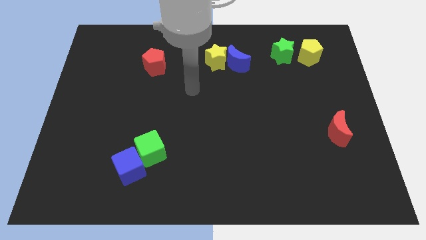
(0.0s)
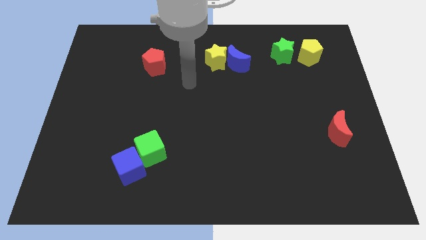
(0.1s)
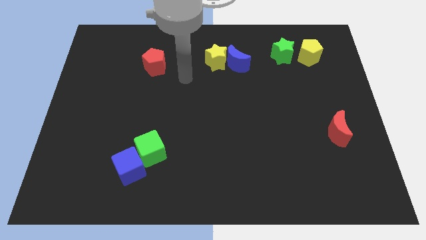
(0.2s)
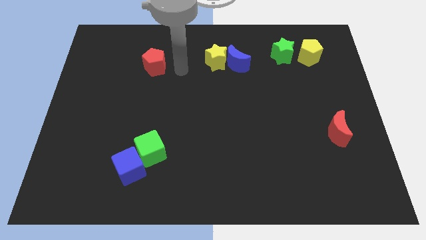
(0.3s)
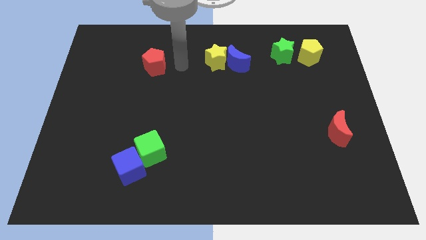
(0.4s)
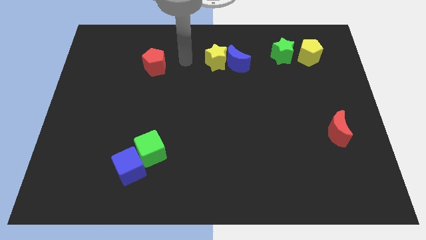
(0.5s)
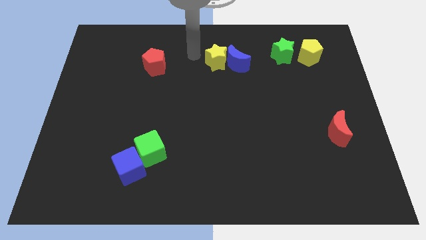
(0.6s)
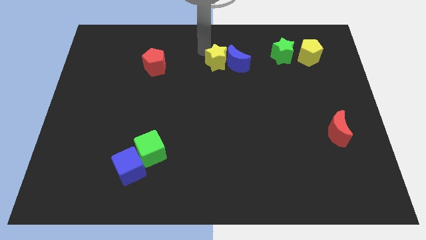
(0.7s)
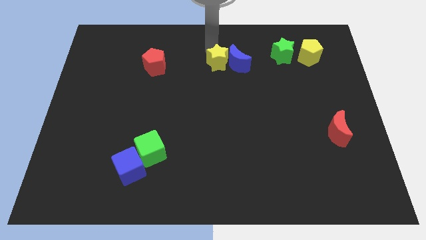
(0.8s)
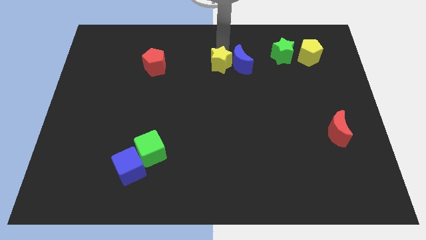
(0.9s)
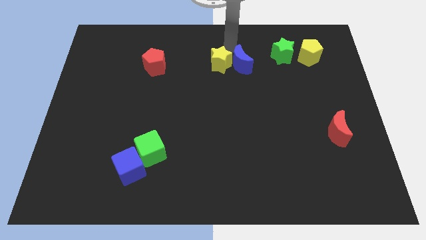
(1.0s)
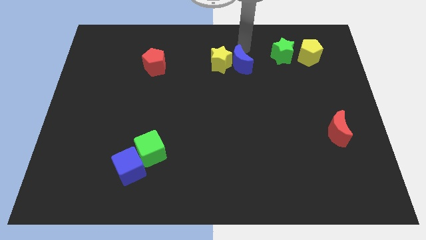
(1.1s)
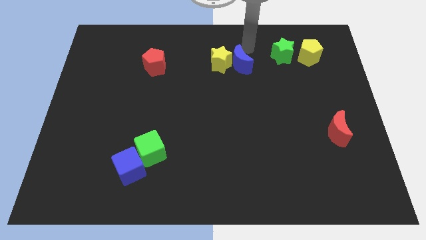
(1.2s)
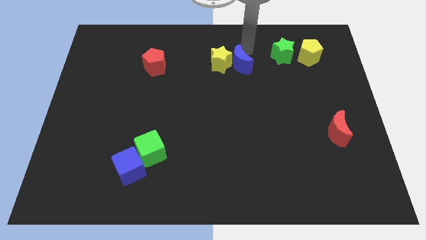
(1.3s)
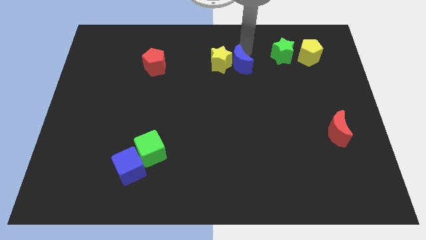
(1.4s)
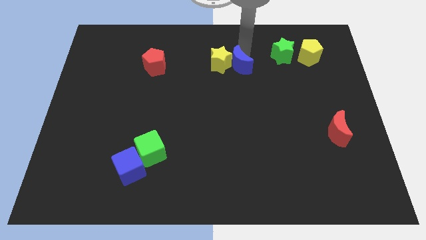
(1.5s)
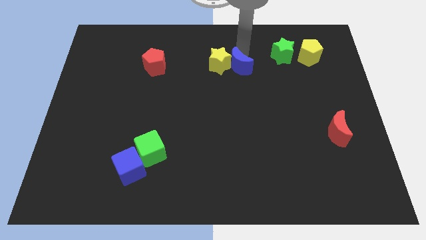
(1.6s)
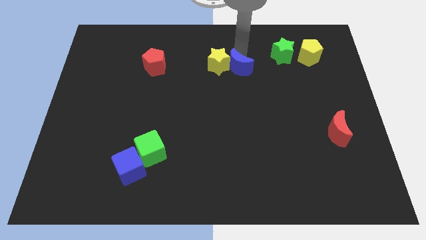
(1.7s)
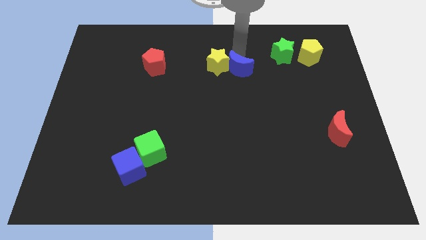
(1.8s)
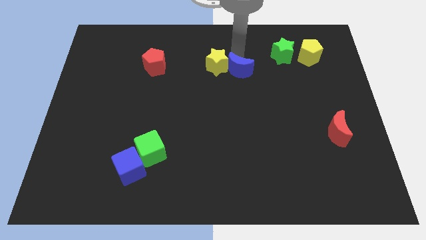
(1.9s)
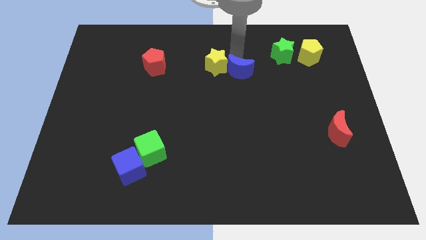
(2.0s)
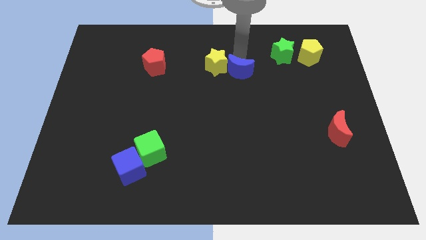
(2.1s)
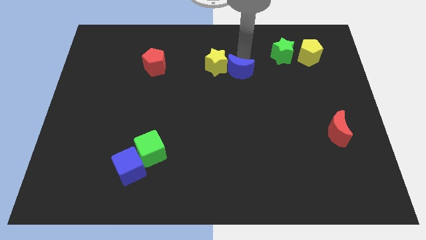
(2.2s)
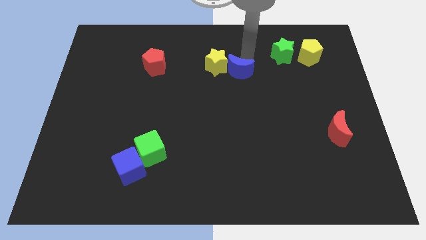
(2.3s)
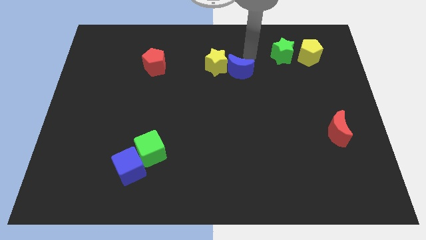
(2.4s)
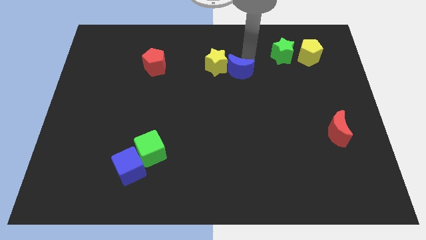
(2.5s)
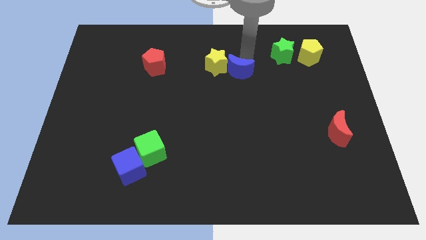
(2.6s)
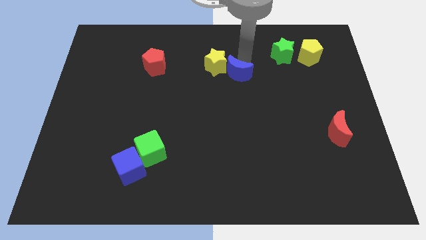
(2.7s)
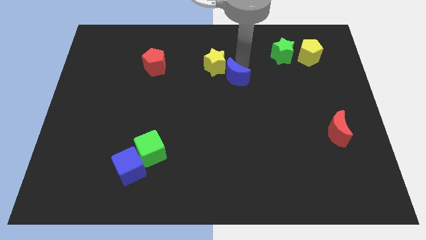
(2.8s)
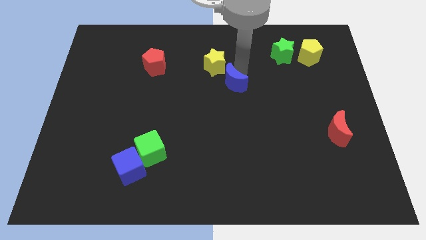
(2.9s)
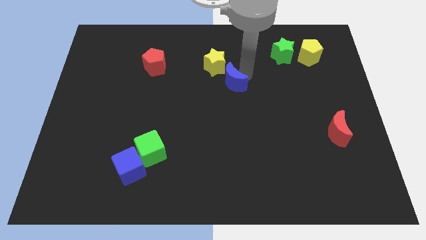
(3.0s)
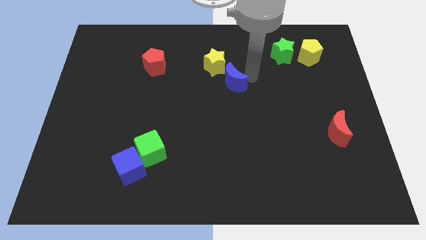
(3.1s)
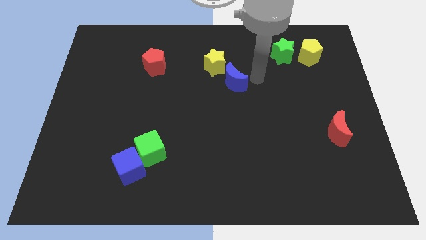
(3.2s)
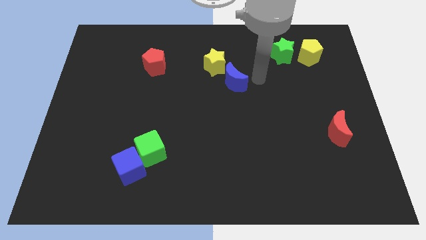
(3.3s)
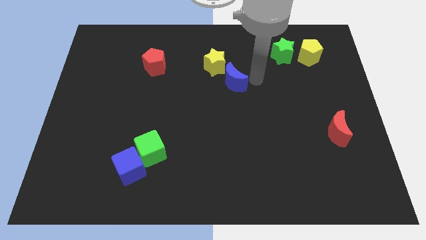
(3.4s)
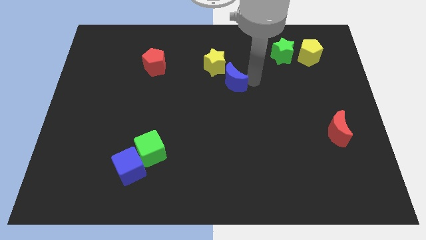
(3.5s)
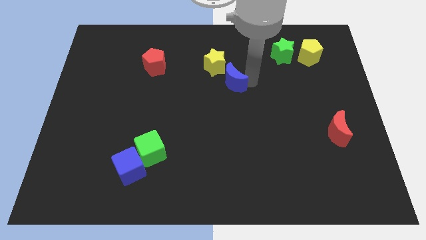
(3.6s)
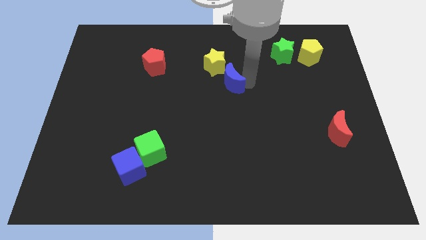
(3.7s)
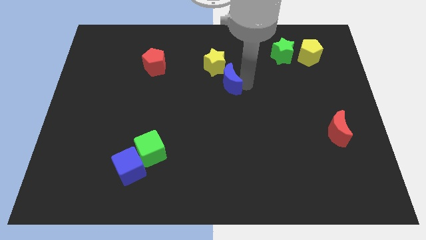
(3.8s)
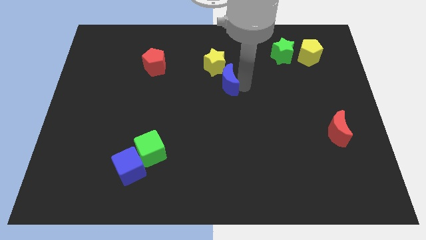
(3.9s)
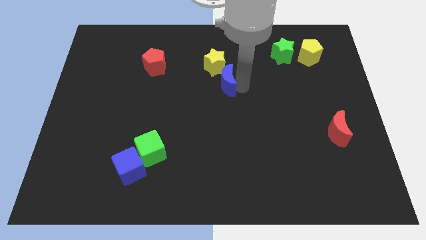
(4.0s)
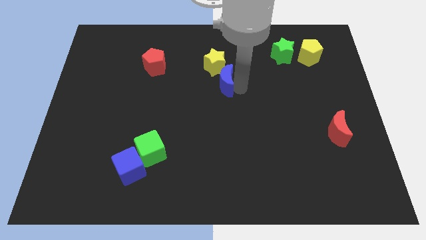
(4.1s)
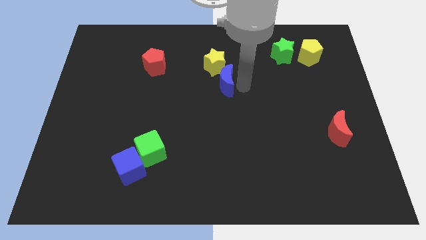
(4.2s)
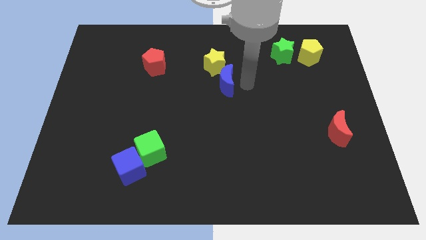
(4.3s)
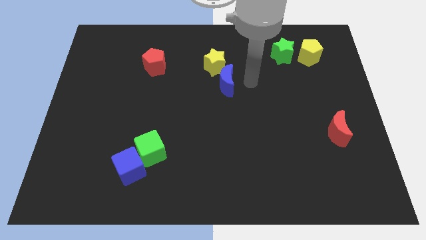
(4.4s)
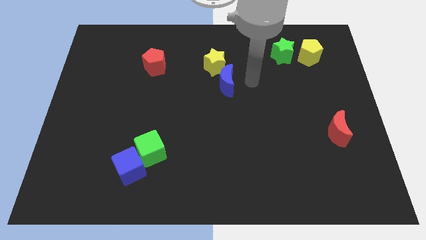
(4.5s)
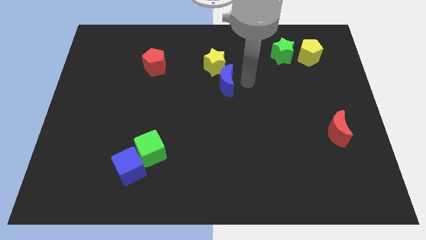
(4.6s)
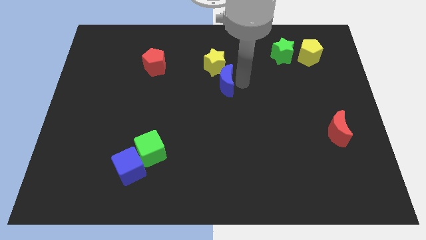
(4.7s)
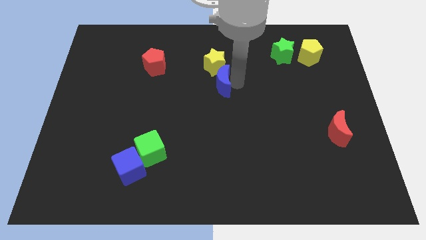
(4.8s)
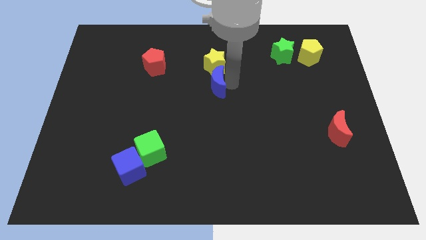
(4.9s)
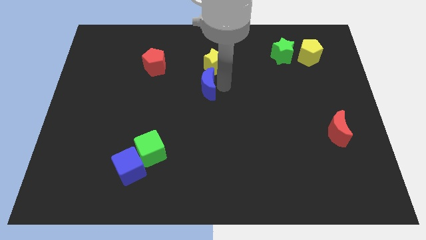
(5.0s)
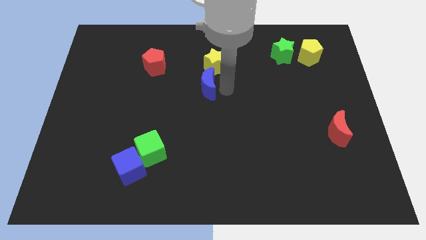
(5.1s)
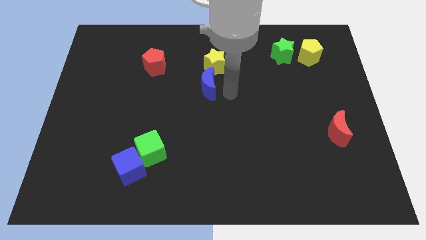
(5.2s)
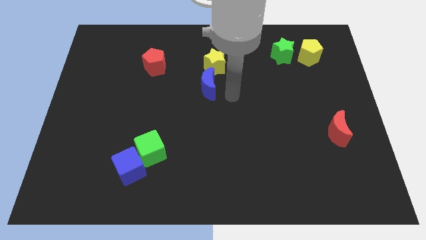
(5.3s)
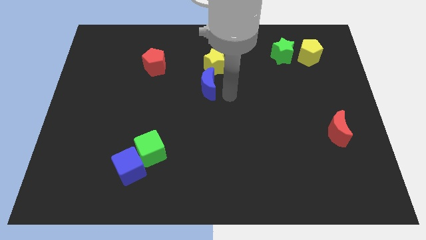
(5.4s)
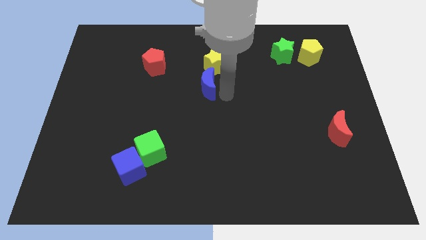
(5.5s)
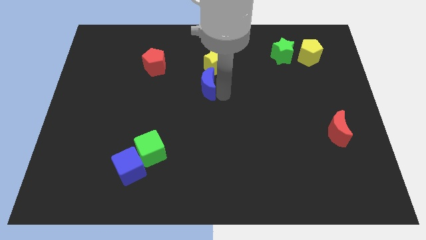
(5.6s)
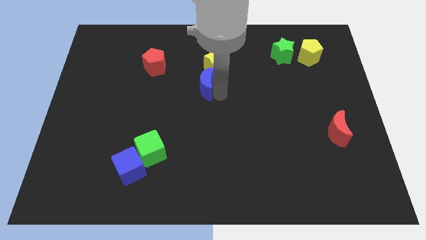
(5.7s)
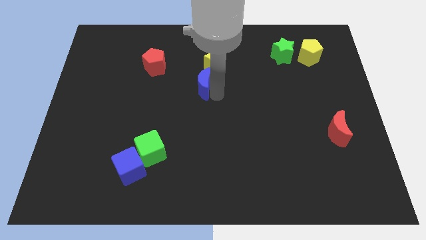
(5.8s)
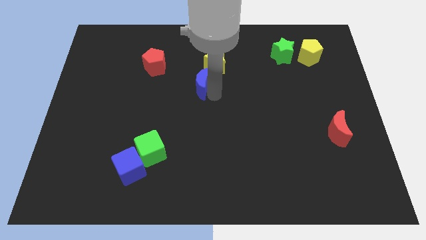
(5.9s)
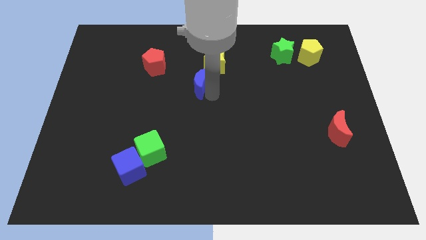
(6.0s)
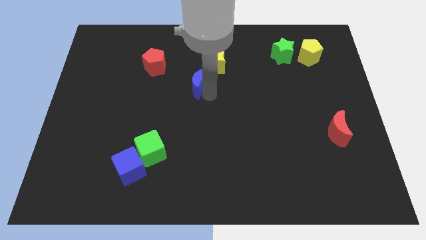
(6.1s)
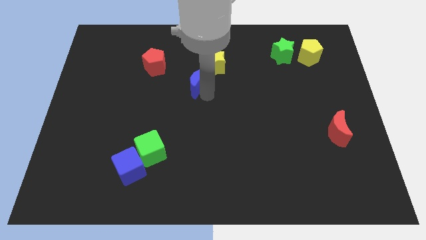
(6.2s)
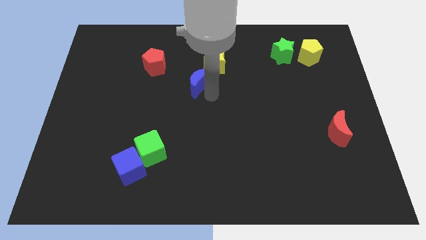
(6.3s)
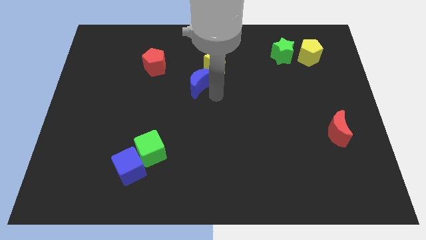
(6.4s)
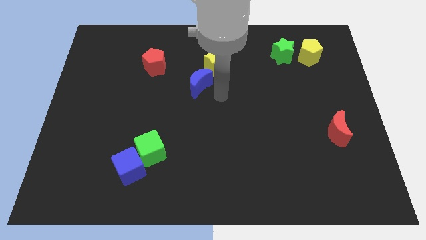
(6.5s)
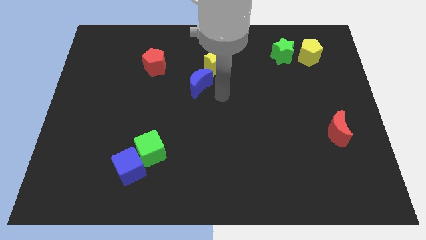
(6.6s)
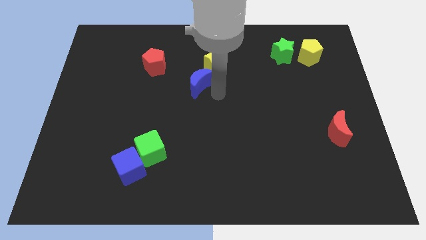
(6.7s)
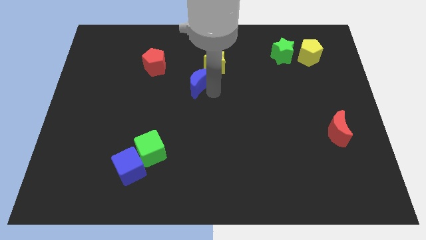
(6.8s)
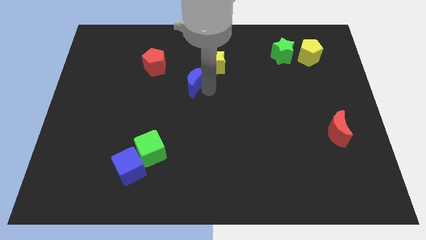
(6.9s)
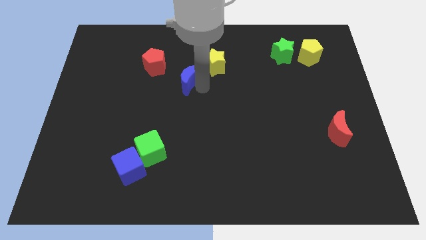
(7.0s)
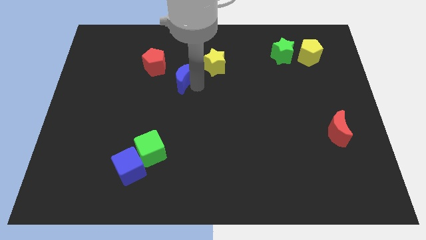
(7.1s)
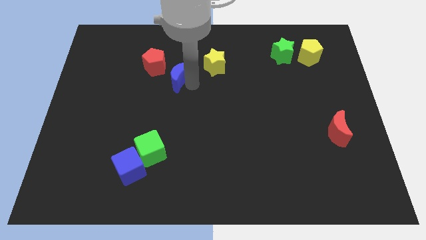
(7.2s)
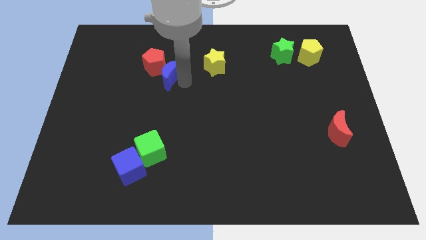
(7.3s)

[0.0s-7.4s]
slide the blue moon next to the red pentagon
